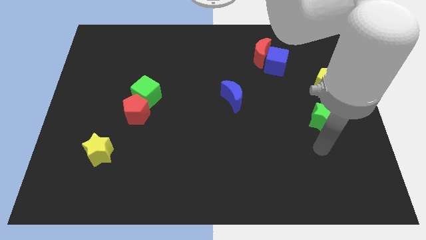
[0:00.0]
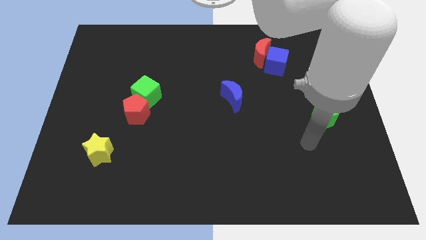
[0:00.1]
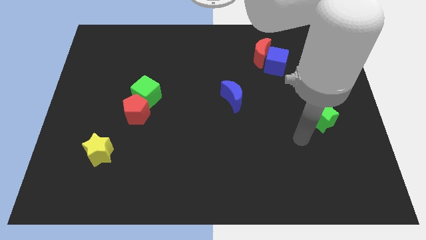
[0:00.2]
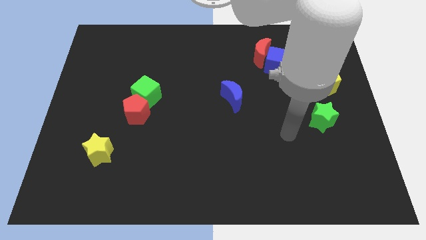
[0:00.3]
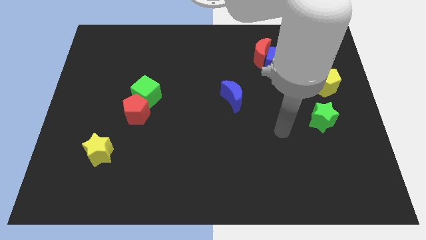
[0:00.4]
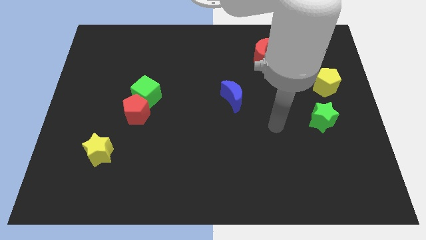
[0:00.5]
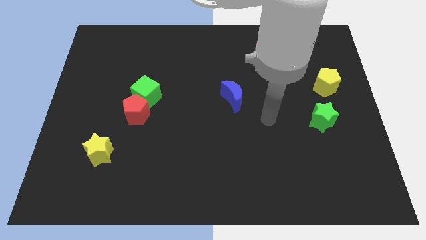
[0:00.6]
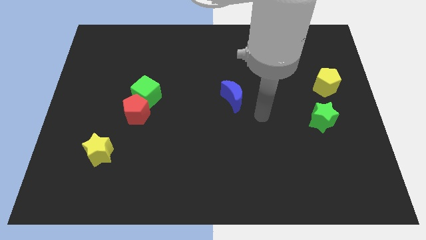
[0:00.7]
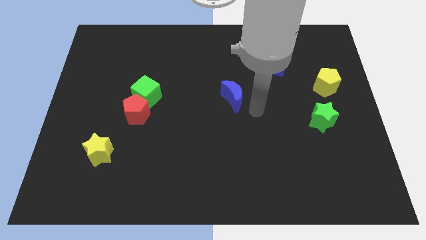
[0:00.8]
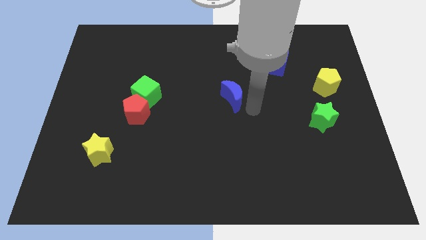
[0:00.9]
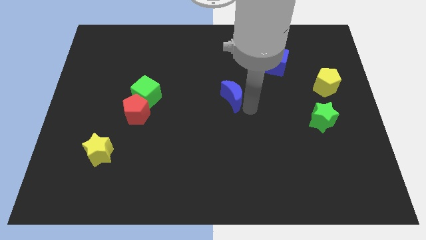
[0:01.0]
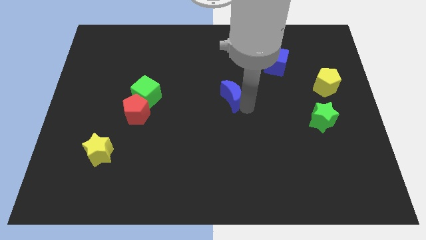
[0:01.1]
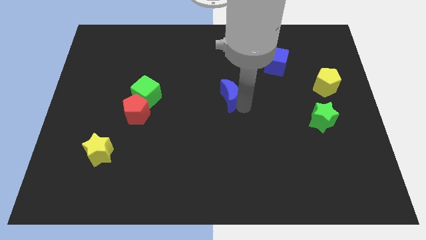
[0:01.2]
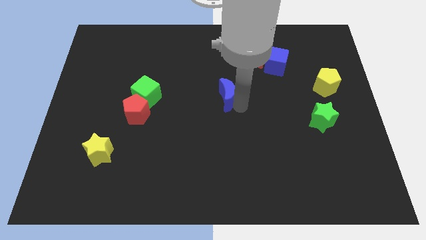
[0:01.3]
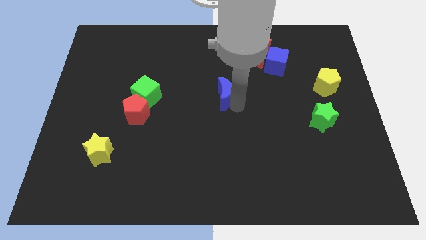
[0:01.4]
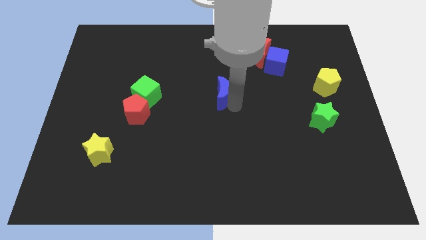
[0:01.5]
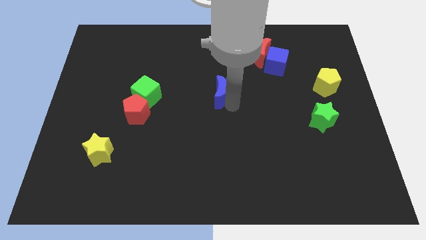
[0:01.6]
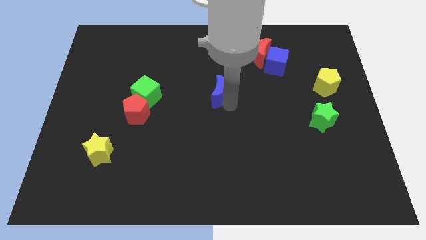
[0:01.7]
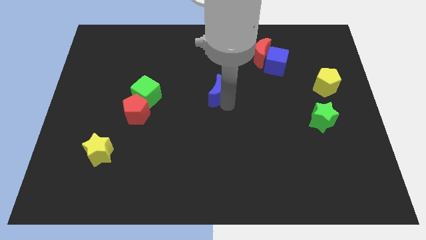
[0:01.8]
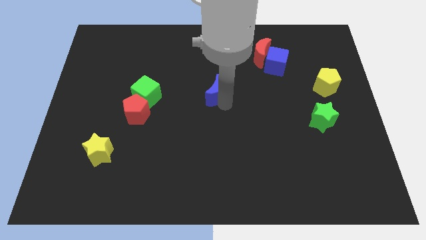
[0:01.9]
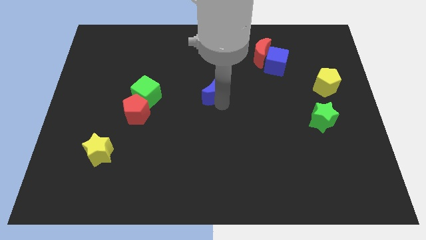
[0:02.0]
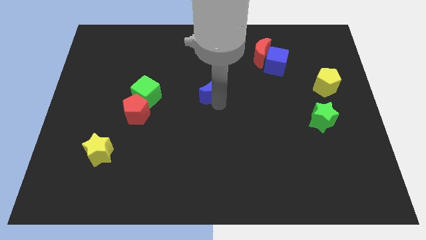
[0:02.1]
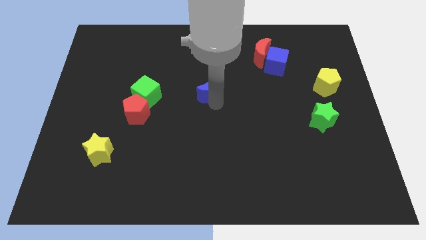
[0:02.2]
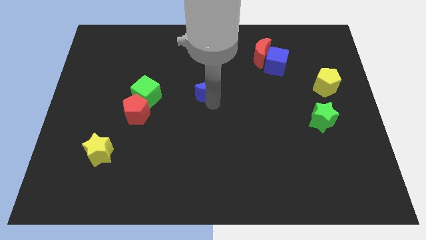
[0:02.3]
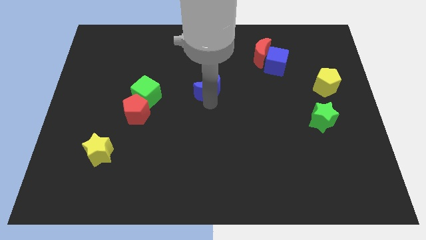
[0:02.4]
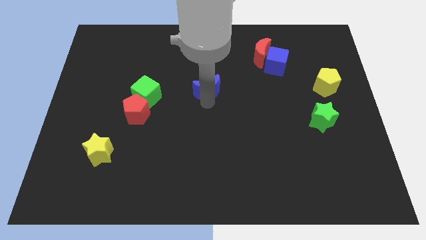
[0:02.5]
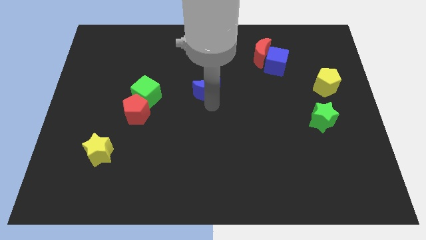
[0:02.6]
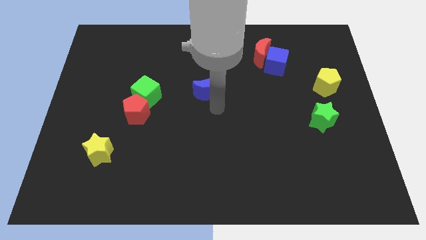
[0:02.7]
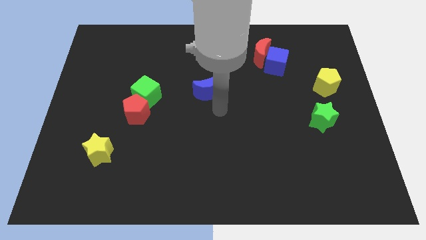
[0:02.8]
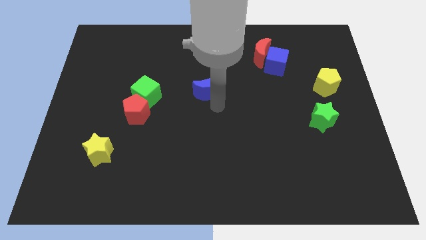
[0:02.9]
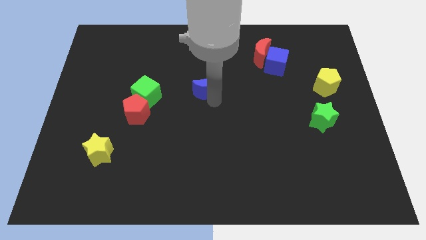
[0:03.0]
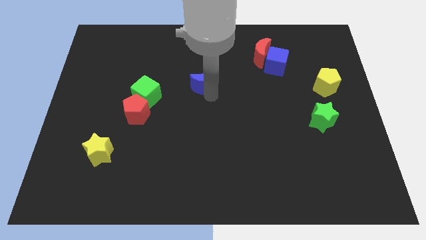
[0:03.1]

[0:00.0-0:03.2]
push the blue moon a bit upwards and then left

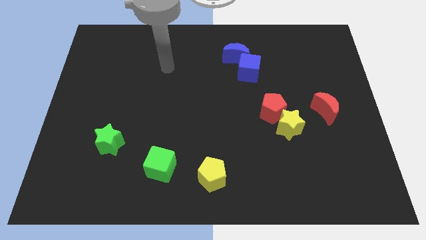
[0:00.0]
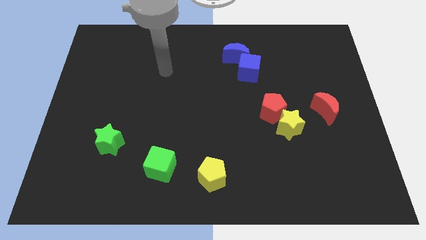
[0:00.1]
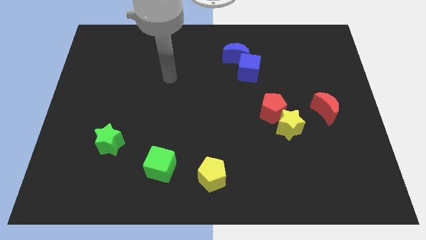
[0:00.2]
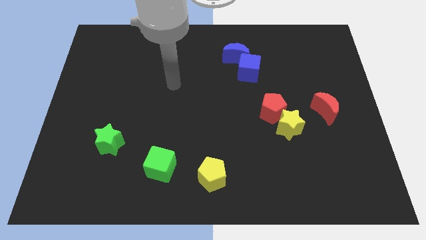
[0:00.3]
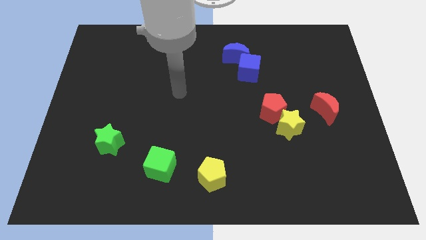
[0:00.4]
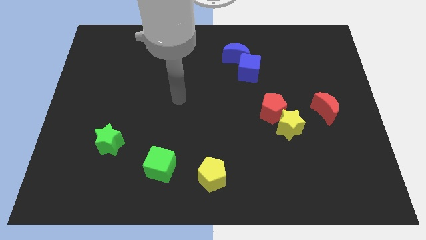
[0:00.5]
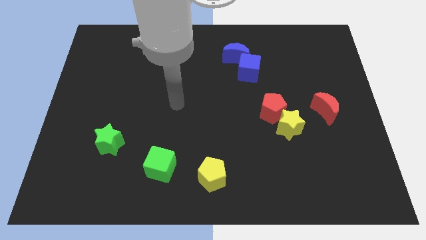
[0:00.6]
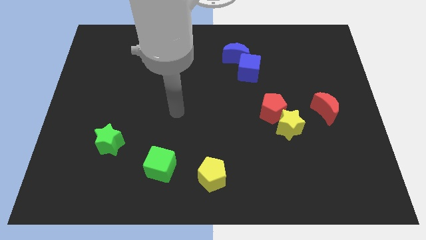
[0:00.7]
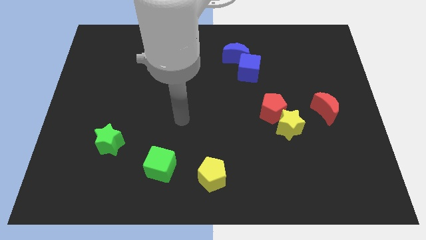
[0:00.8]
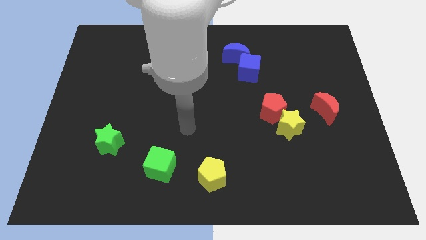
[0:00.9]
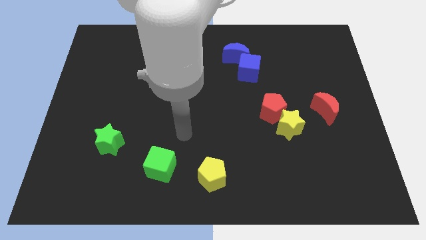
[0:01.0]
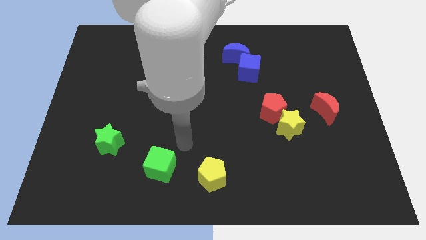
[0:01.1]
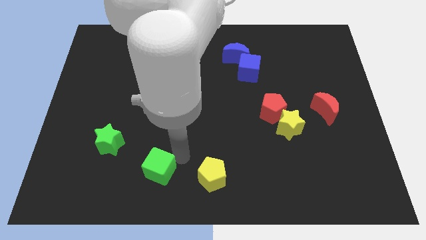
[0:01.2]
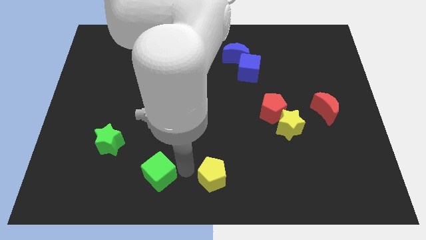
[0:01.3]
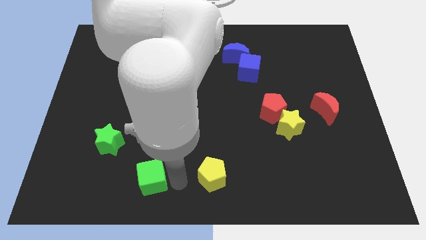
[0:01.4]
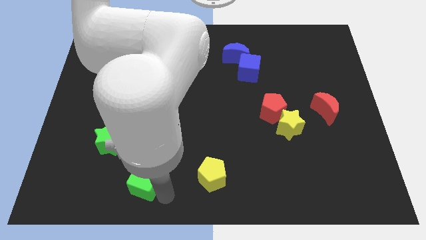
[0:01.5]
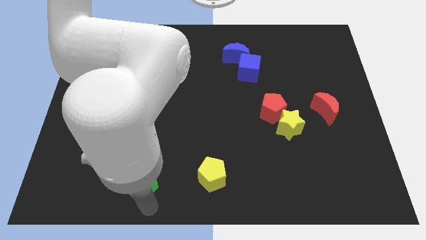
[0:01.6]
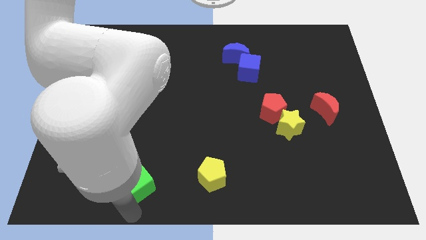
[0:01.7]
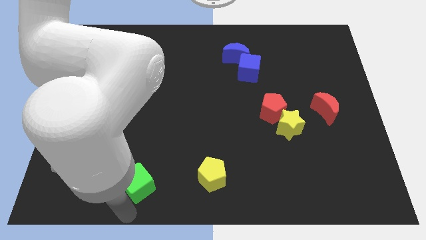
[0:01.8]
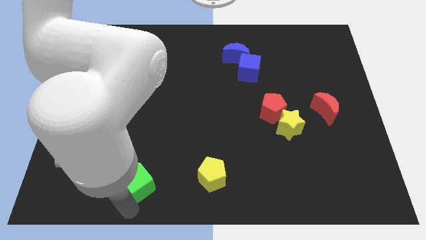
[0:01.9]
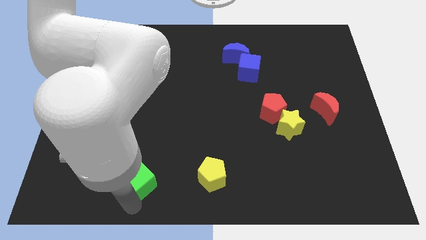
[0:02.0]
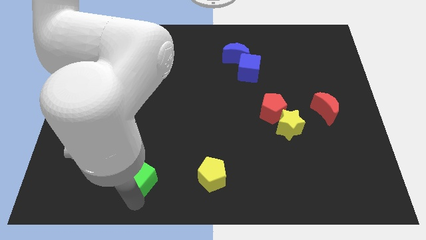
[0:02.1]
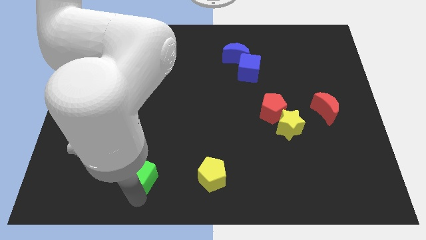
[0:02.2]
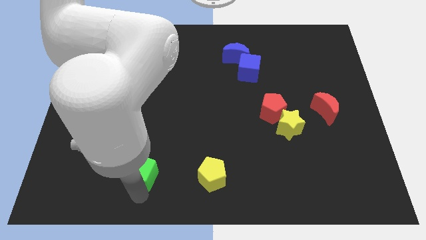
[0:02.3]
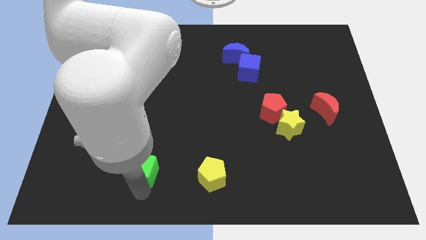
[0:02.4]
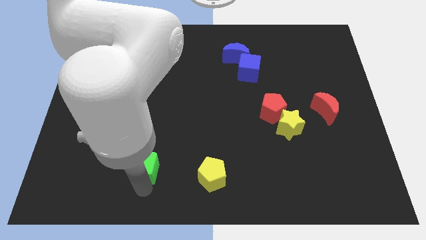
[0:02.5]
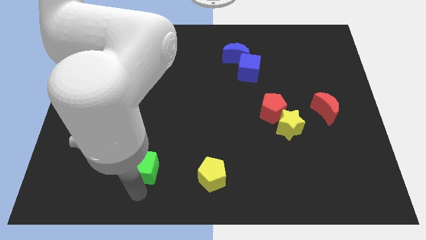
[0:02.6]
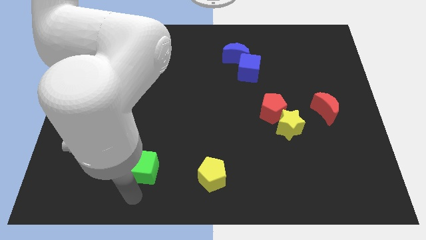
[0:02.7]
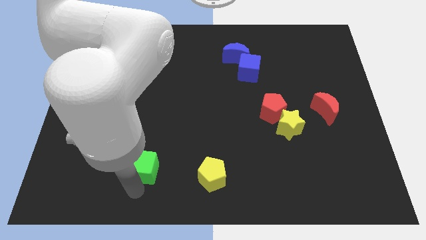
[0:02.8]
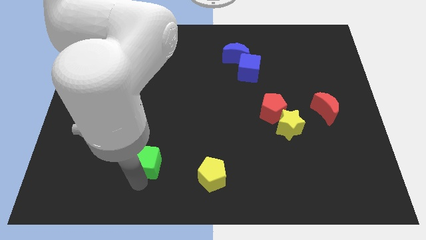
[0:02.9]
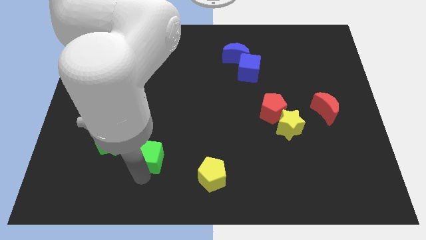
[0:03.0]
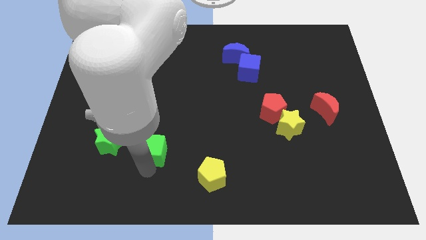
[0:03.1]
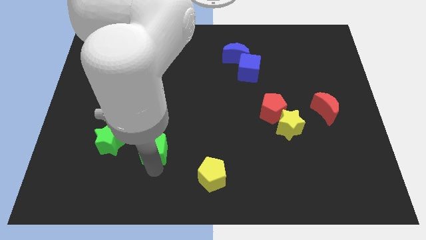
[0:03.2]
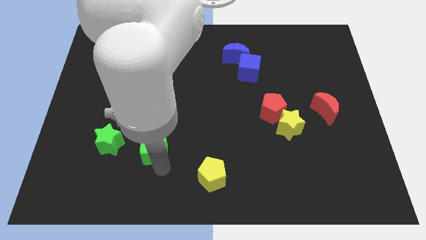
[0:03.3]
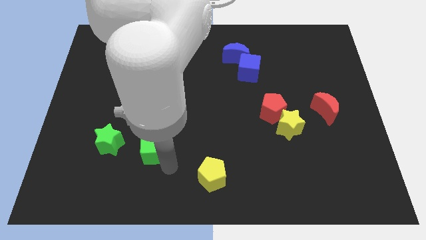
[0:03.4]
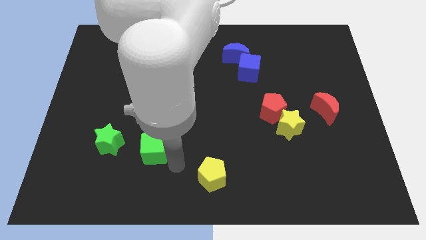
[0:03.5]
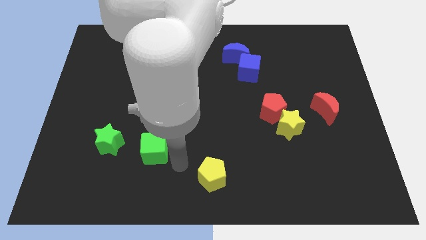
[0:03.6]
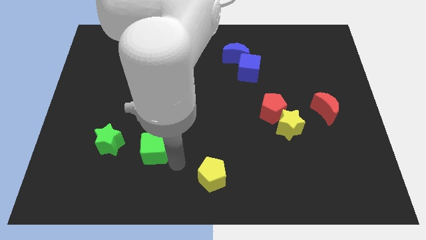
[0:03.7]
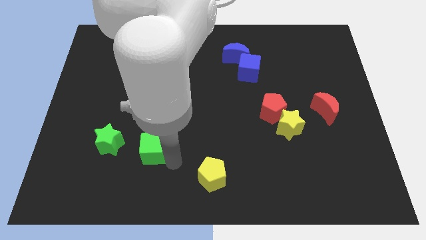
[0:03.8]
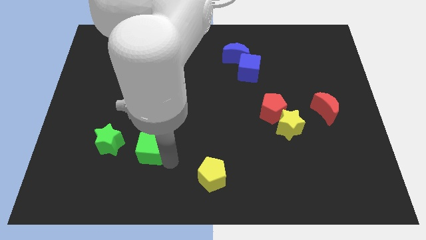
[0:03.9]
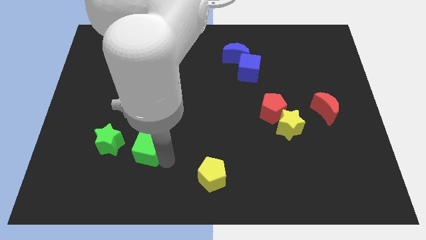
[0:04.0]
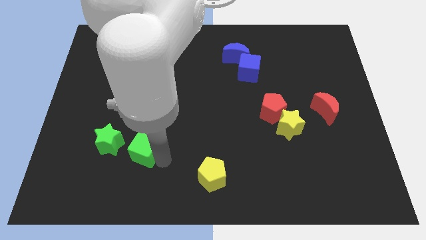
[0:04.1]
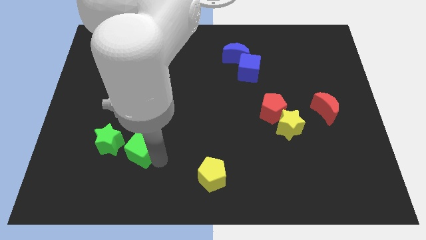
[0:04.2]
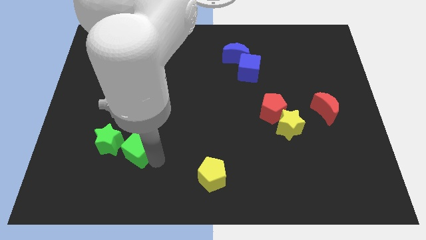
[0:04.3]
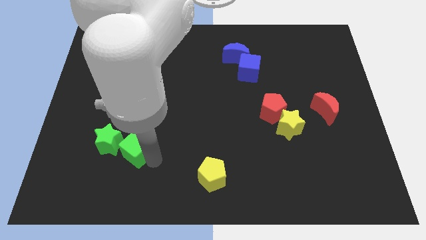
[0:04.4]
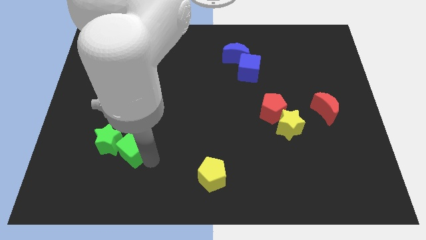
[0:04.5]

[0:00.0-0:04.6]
move the green cube a little up and to the left diagonally
